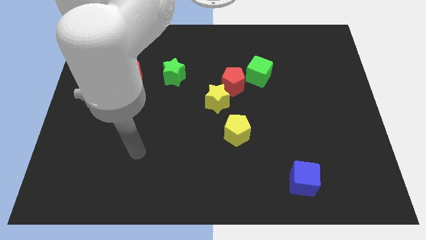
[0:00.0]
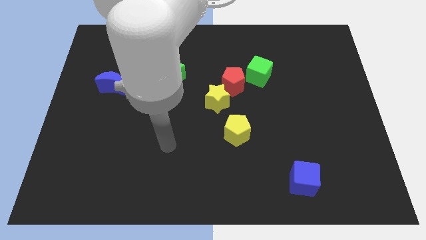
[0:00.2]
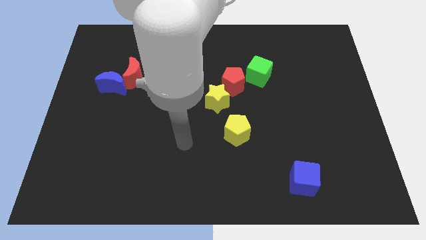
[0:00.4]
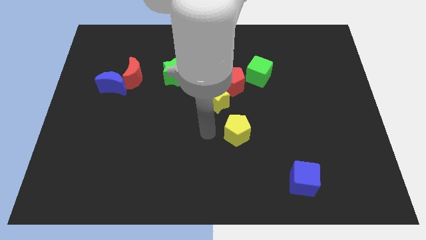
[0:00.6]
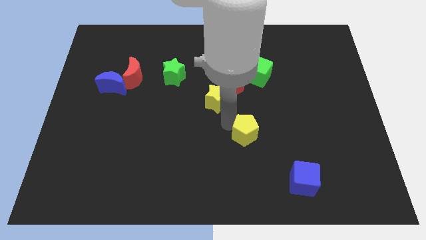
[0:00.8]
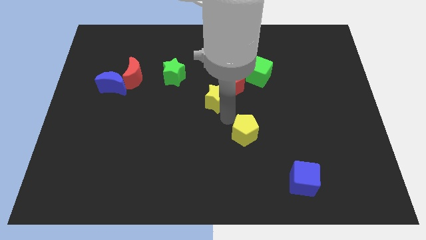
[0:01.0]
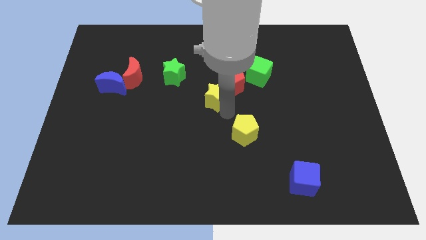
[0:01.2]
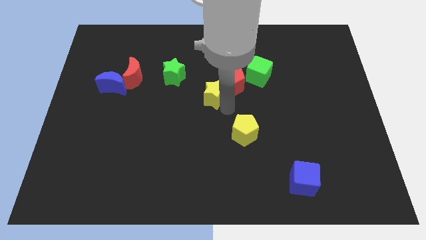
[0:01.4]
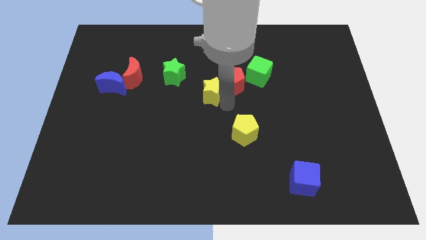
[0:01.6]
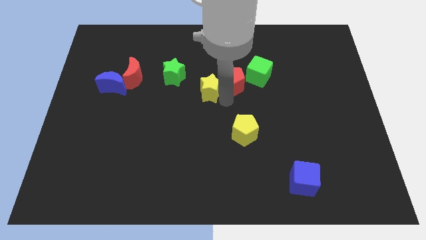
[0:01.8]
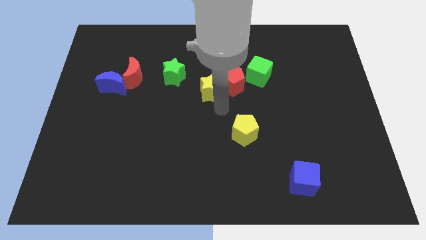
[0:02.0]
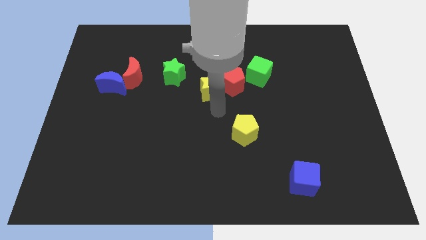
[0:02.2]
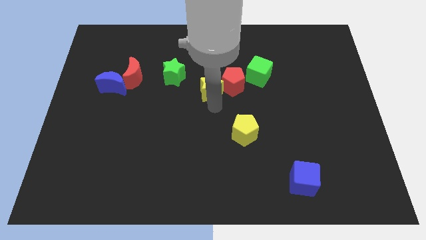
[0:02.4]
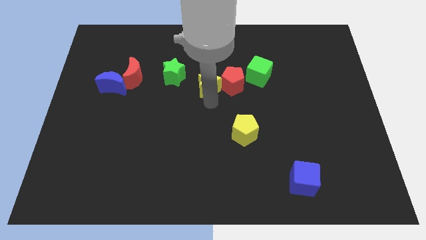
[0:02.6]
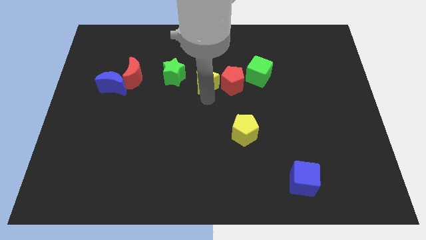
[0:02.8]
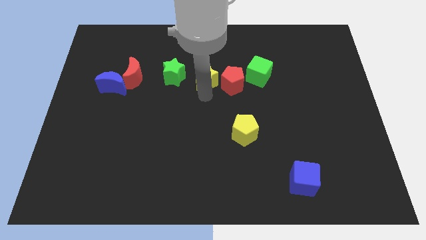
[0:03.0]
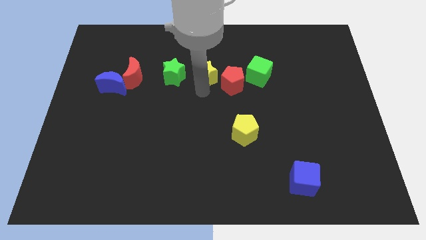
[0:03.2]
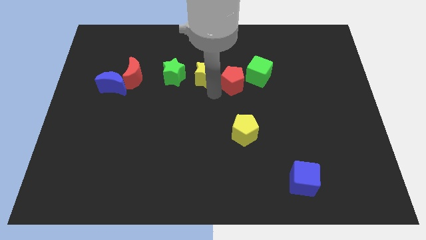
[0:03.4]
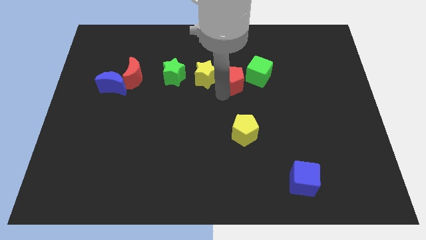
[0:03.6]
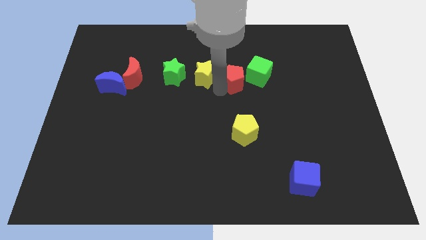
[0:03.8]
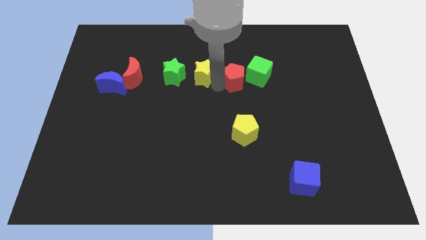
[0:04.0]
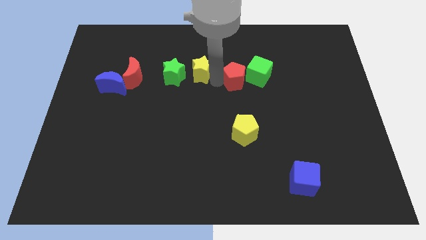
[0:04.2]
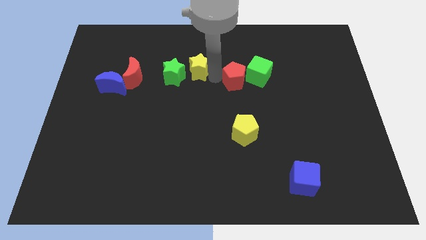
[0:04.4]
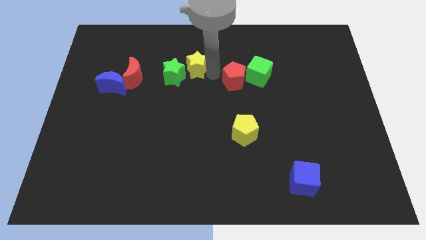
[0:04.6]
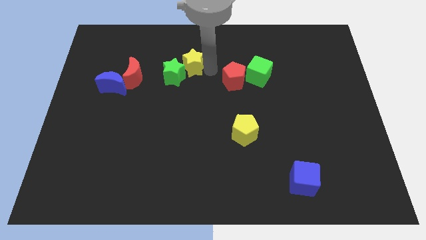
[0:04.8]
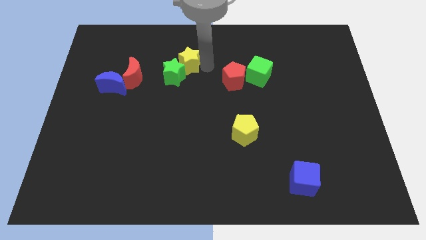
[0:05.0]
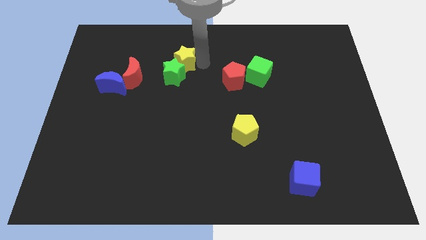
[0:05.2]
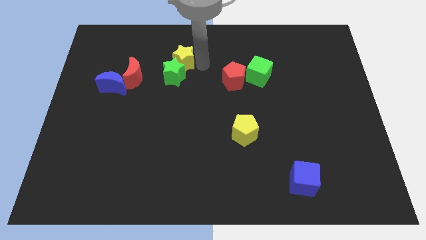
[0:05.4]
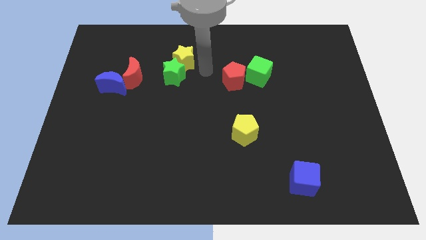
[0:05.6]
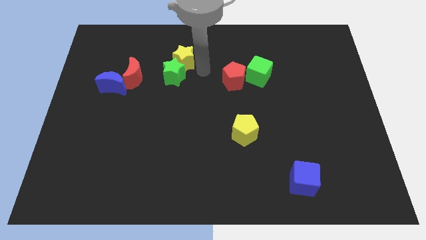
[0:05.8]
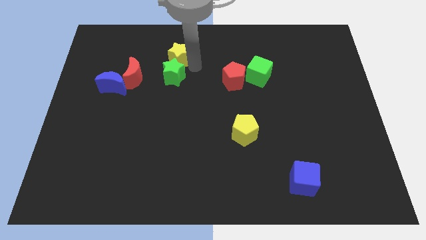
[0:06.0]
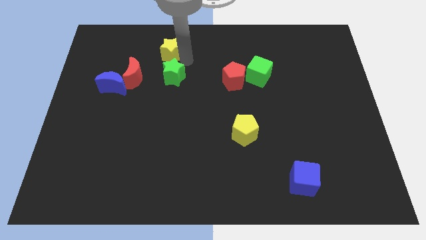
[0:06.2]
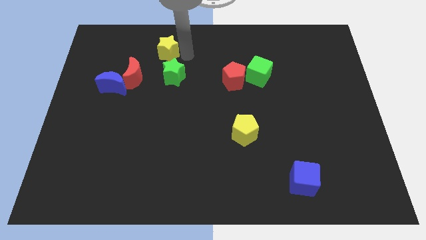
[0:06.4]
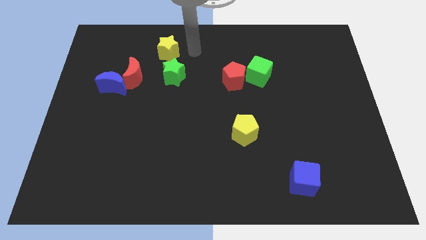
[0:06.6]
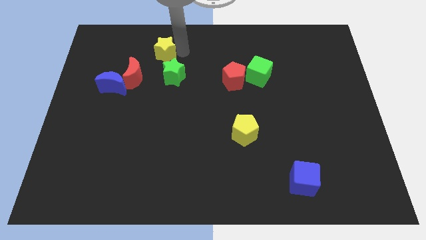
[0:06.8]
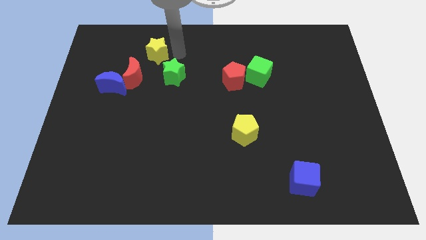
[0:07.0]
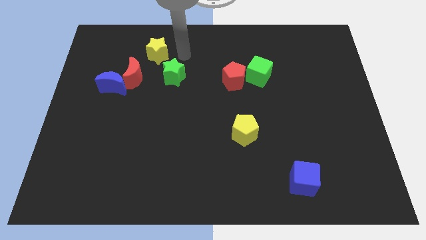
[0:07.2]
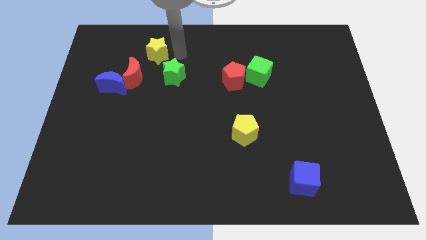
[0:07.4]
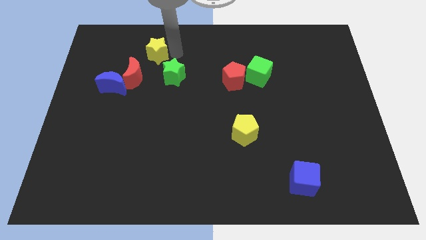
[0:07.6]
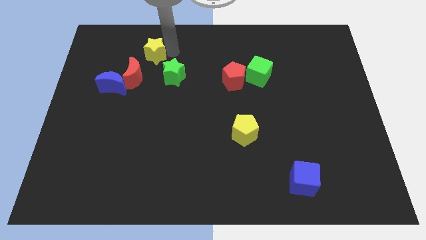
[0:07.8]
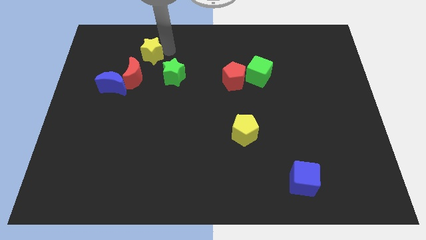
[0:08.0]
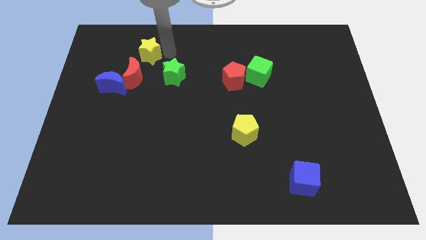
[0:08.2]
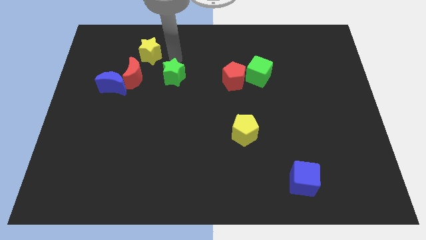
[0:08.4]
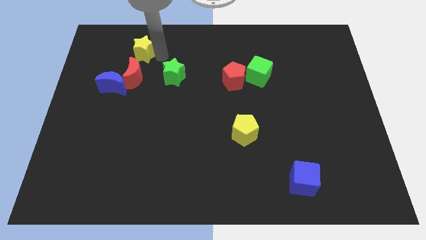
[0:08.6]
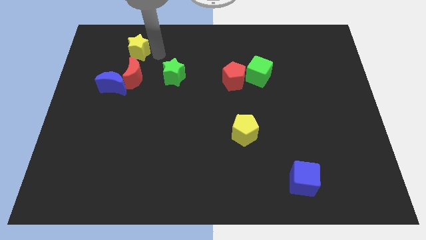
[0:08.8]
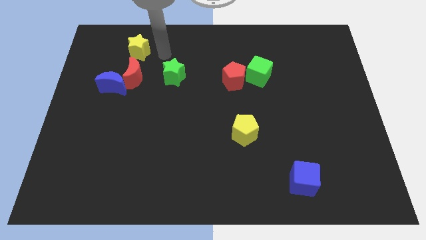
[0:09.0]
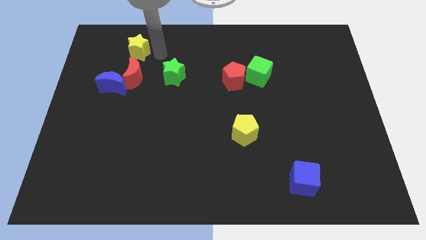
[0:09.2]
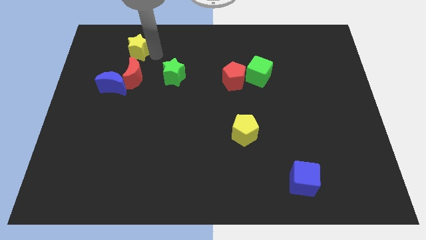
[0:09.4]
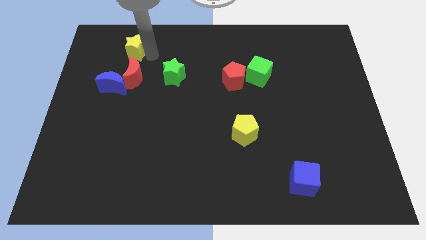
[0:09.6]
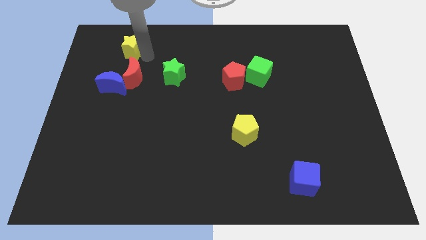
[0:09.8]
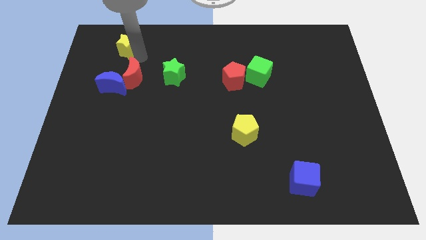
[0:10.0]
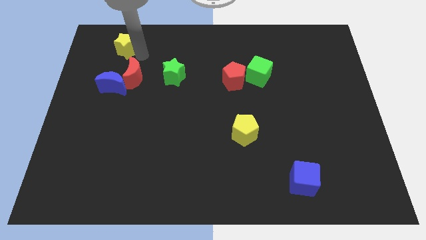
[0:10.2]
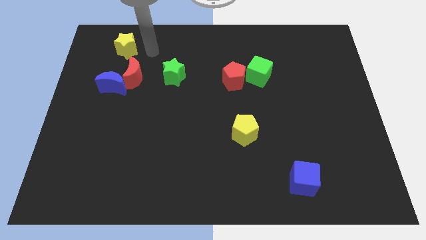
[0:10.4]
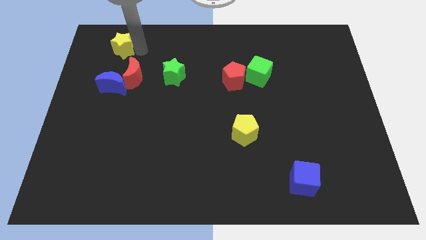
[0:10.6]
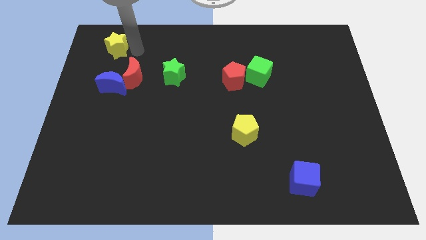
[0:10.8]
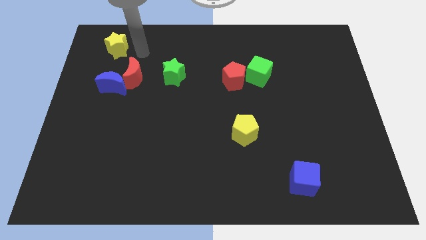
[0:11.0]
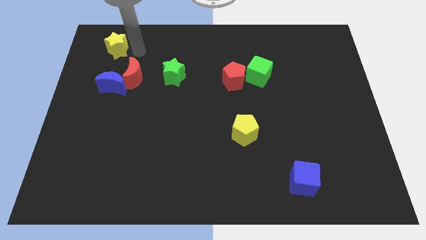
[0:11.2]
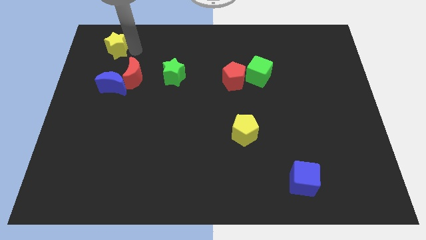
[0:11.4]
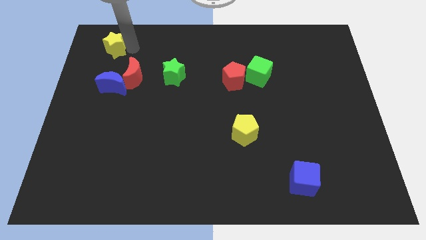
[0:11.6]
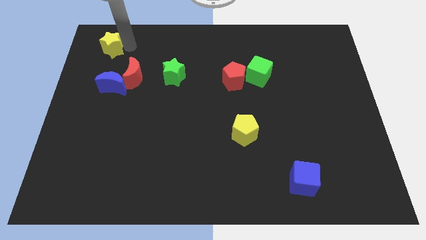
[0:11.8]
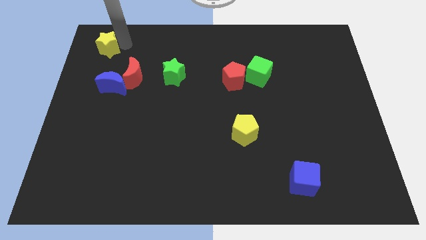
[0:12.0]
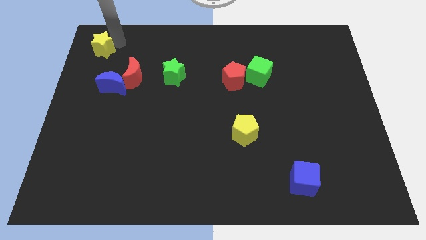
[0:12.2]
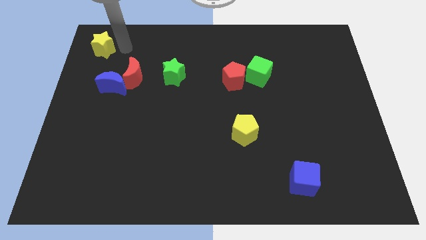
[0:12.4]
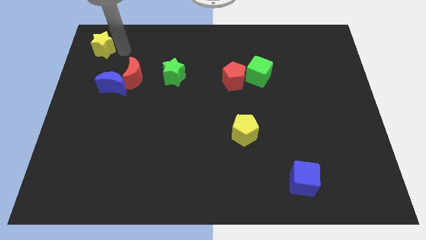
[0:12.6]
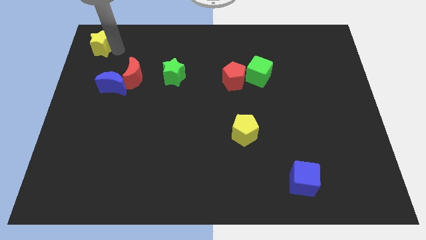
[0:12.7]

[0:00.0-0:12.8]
move the yellow star to the top left of the board

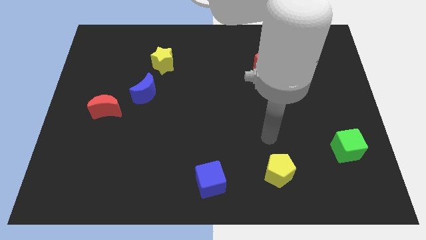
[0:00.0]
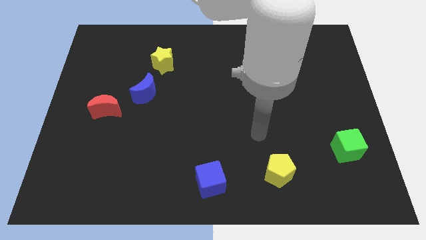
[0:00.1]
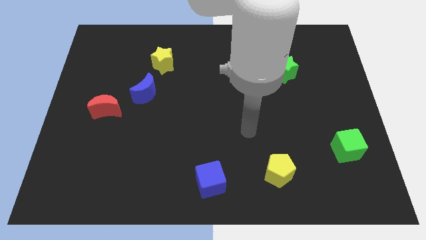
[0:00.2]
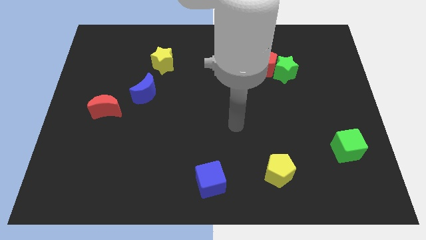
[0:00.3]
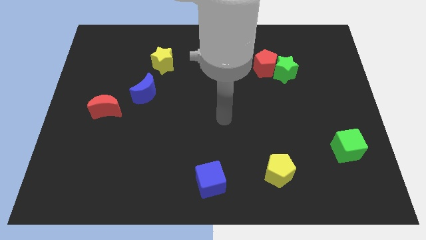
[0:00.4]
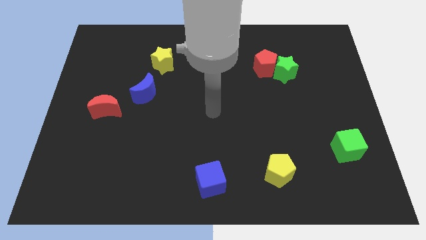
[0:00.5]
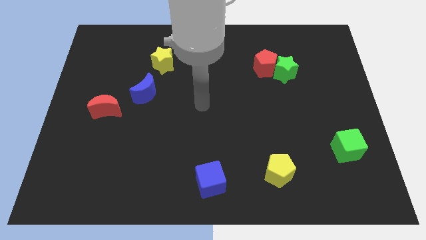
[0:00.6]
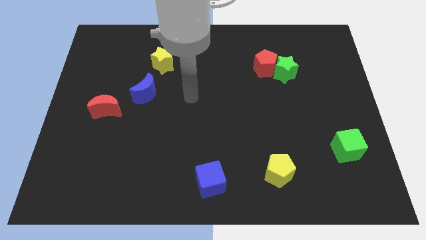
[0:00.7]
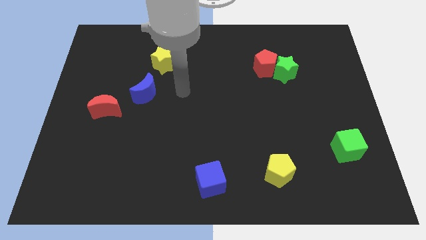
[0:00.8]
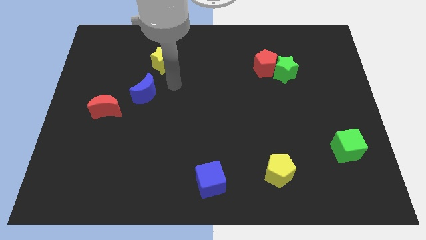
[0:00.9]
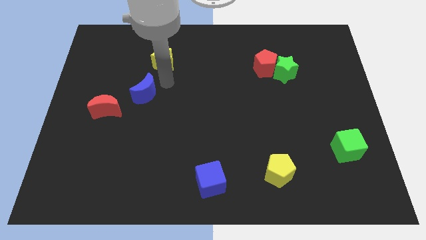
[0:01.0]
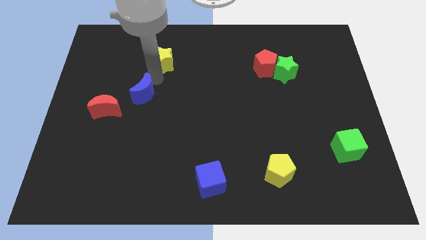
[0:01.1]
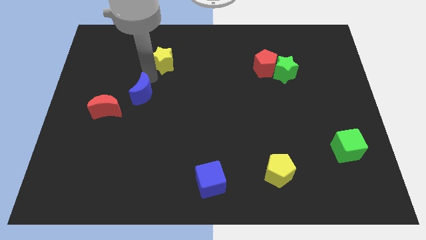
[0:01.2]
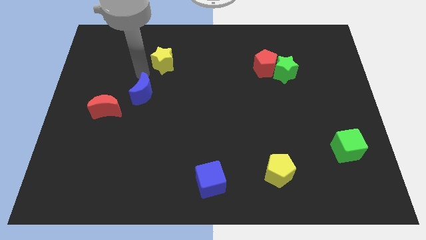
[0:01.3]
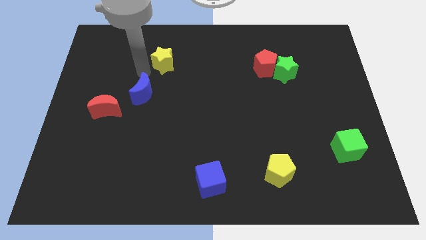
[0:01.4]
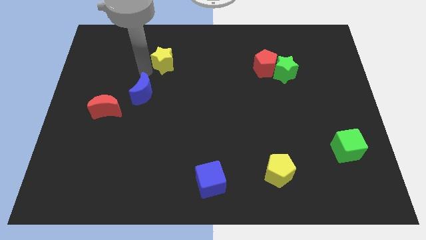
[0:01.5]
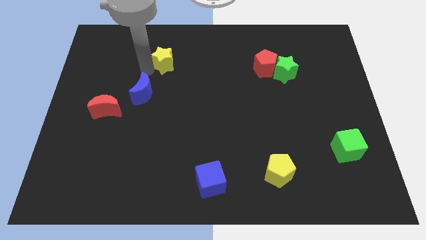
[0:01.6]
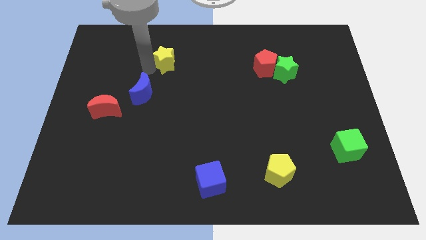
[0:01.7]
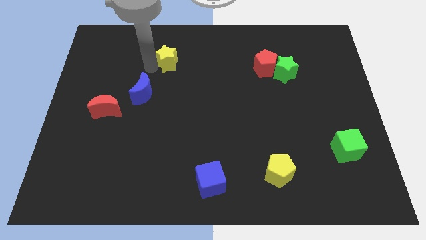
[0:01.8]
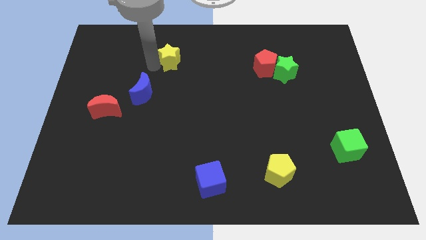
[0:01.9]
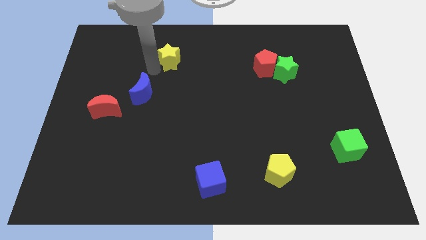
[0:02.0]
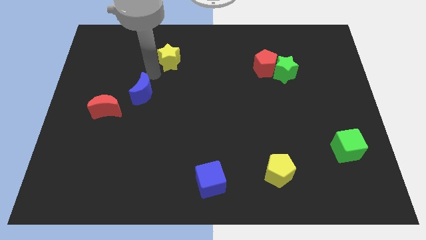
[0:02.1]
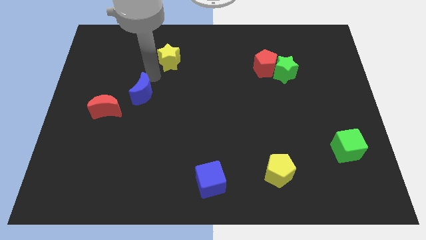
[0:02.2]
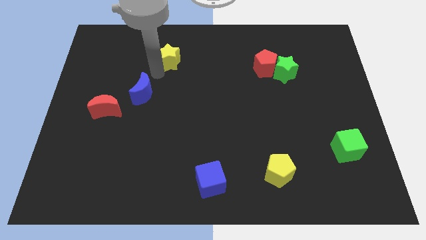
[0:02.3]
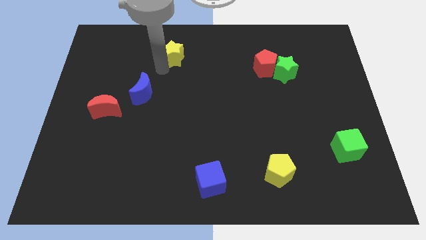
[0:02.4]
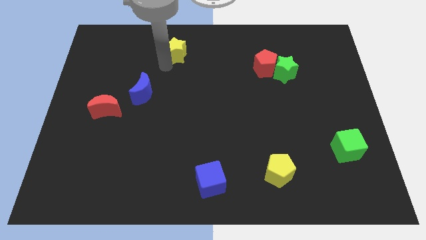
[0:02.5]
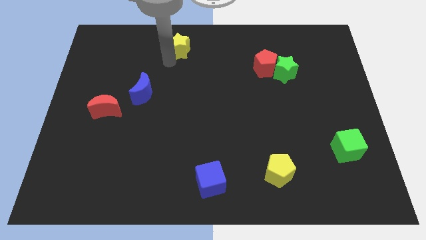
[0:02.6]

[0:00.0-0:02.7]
move the yellow star to the top side
